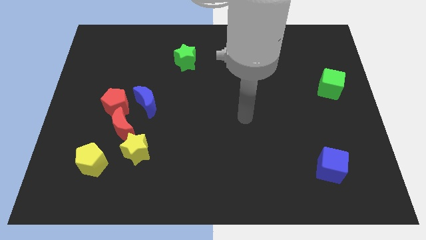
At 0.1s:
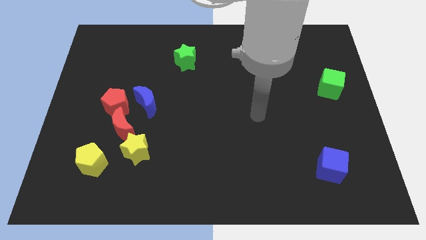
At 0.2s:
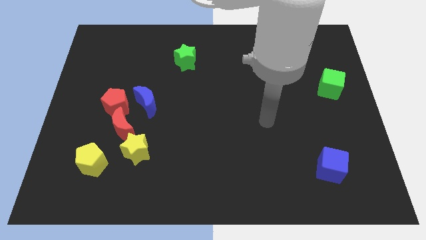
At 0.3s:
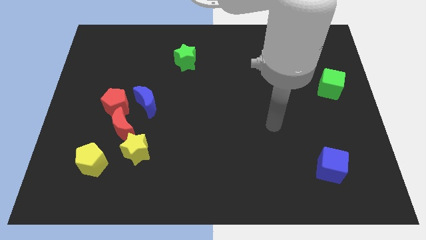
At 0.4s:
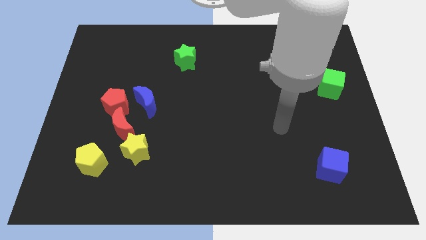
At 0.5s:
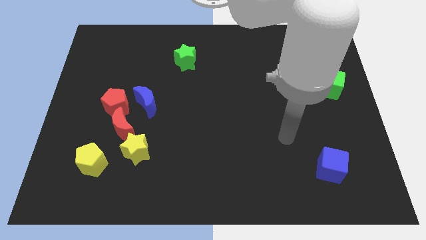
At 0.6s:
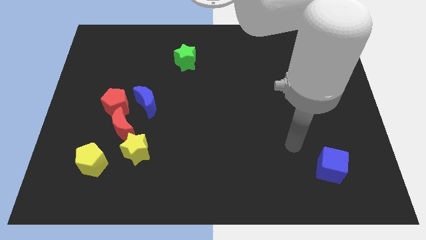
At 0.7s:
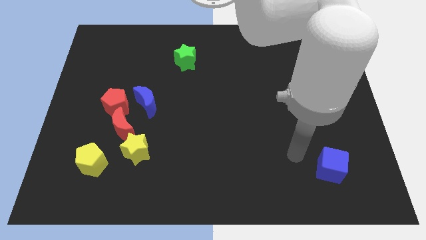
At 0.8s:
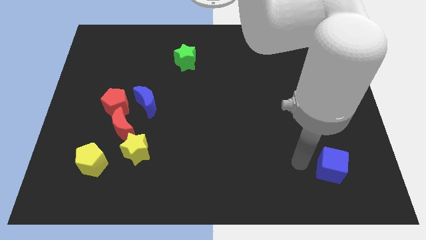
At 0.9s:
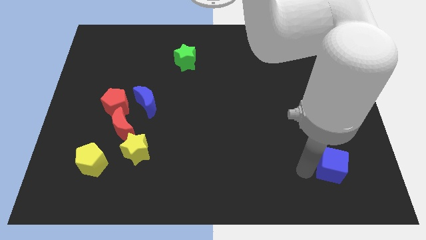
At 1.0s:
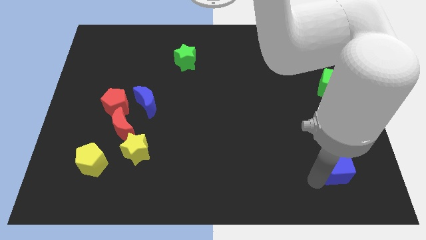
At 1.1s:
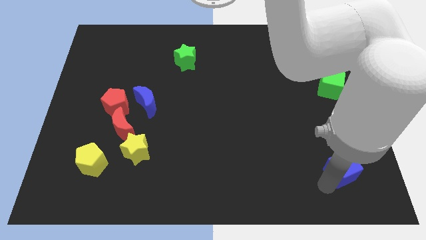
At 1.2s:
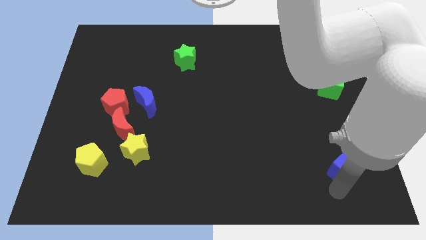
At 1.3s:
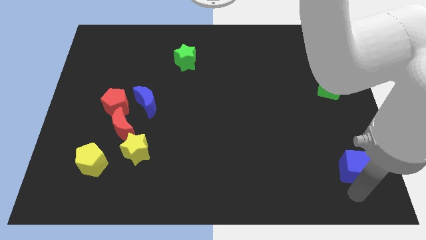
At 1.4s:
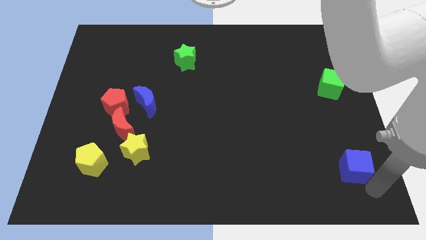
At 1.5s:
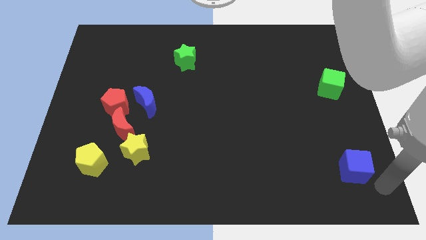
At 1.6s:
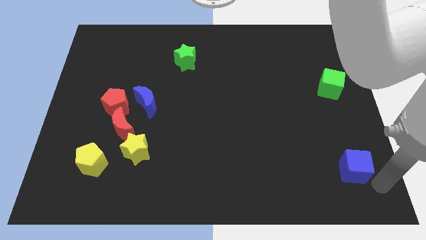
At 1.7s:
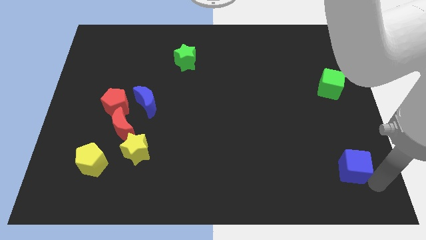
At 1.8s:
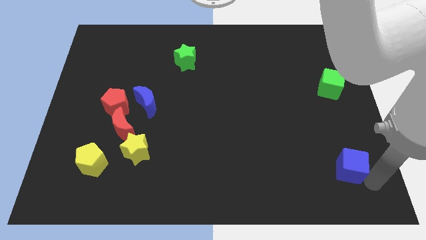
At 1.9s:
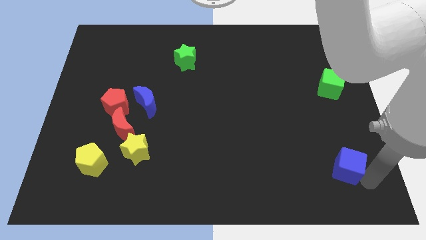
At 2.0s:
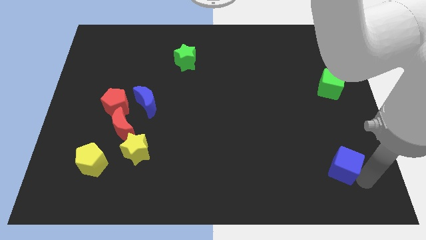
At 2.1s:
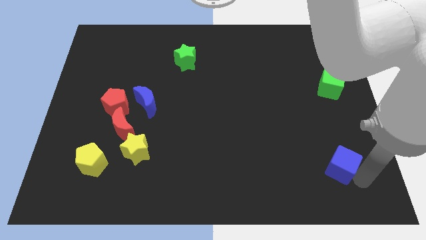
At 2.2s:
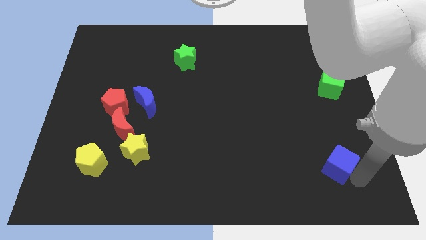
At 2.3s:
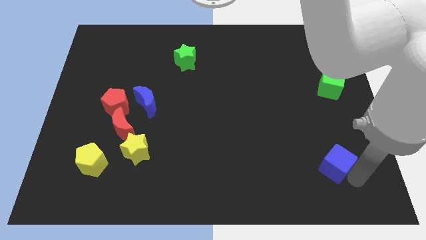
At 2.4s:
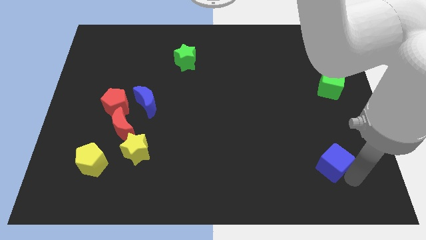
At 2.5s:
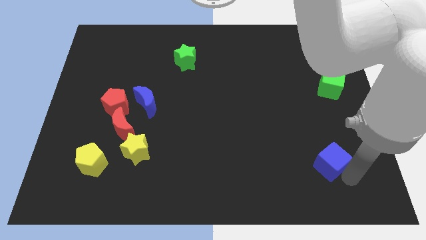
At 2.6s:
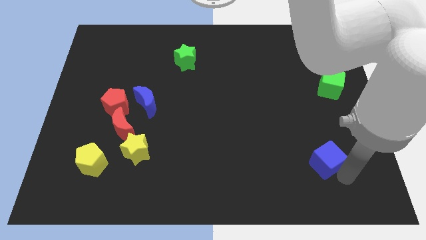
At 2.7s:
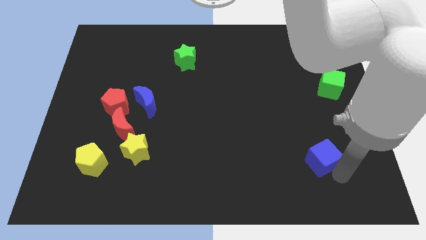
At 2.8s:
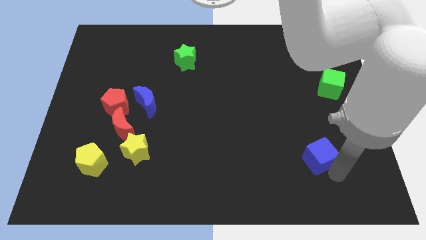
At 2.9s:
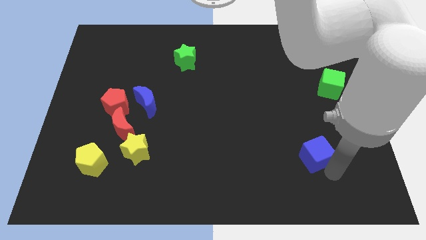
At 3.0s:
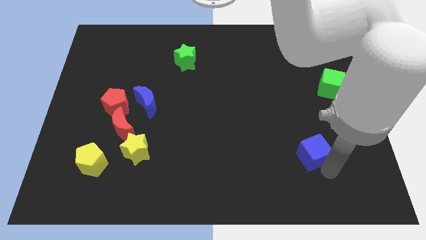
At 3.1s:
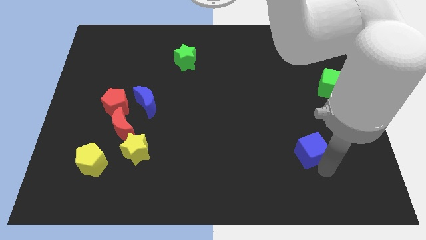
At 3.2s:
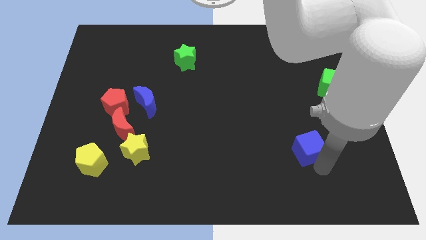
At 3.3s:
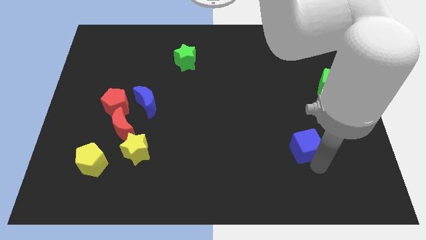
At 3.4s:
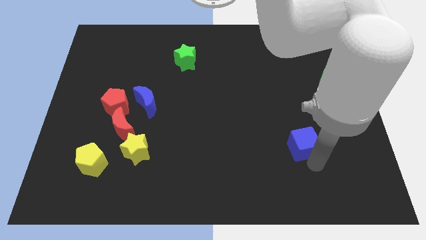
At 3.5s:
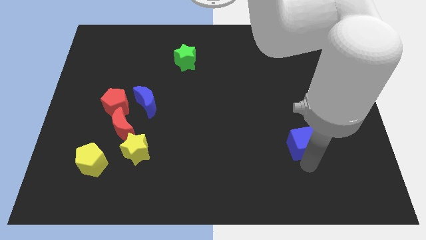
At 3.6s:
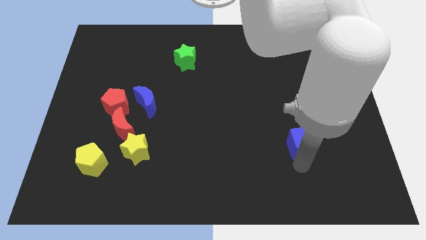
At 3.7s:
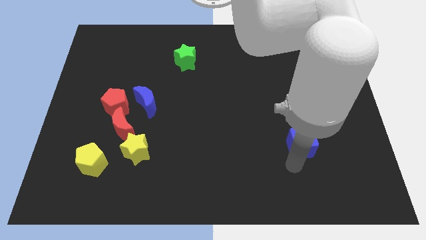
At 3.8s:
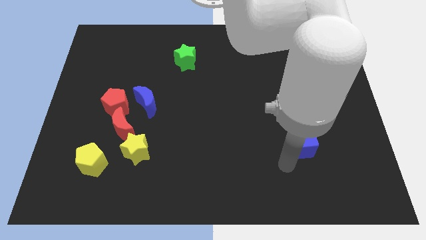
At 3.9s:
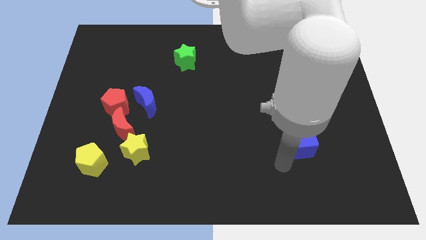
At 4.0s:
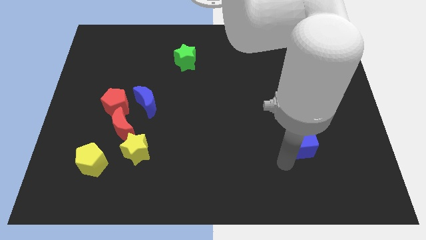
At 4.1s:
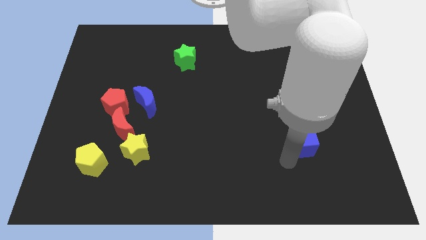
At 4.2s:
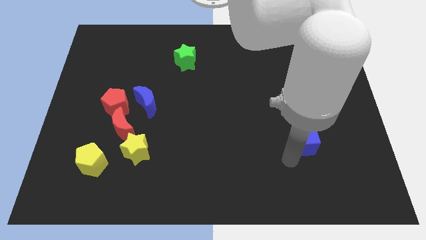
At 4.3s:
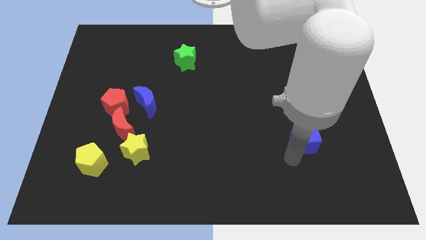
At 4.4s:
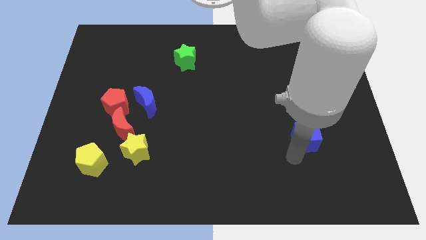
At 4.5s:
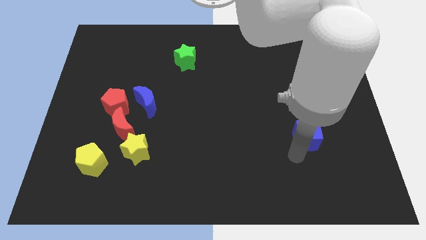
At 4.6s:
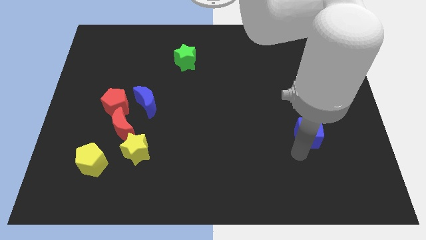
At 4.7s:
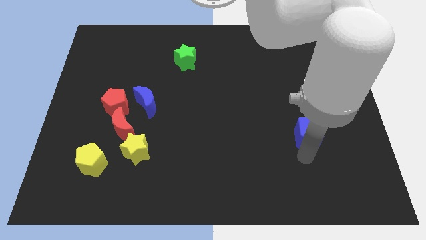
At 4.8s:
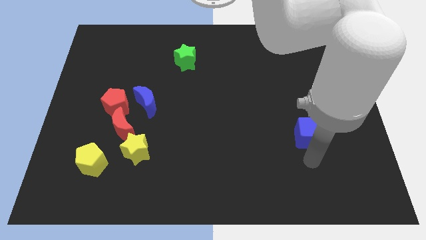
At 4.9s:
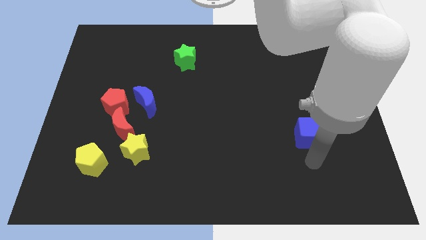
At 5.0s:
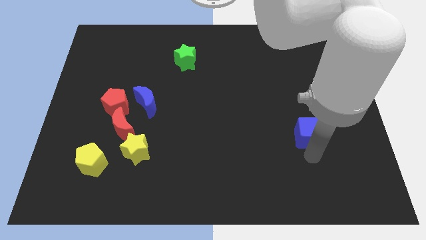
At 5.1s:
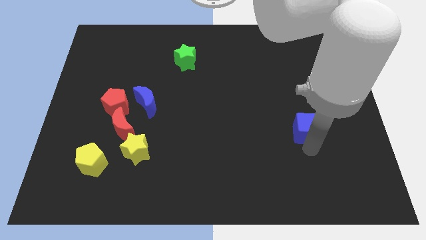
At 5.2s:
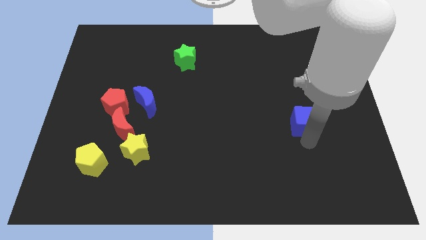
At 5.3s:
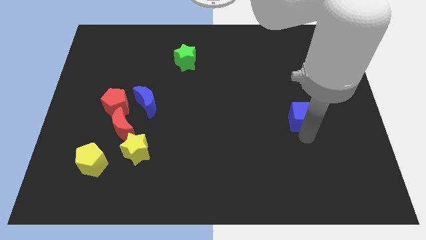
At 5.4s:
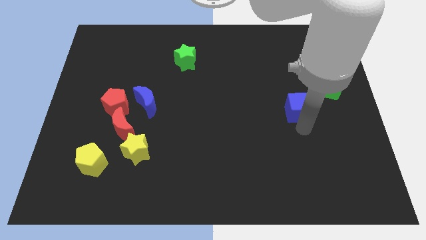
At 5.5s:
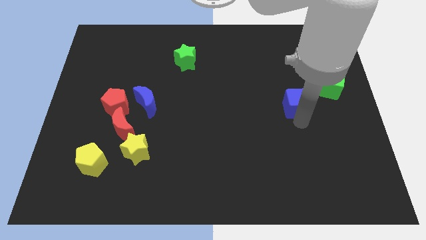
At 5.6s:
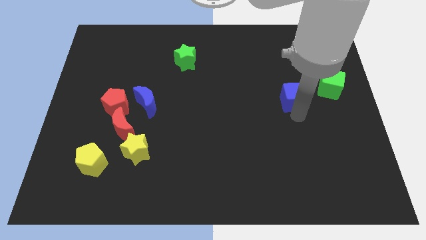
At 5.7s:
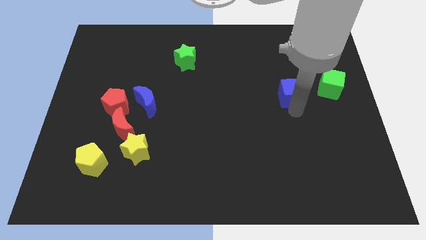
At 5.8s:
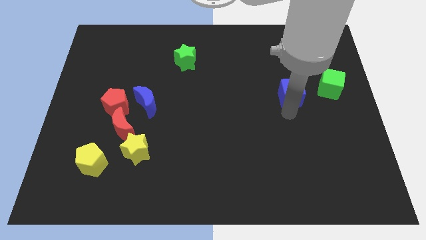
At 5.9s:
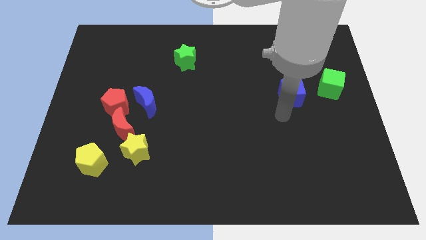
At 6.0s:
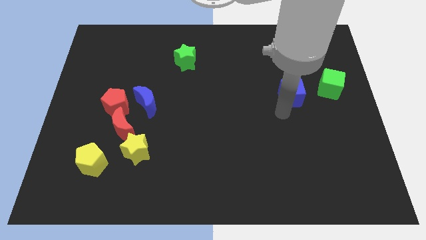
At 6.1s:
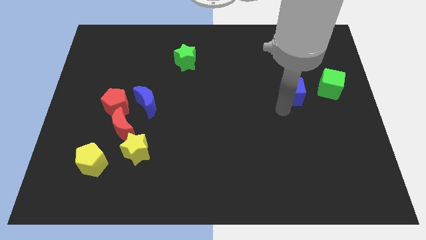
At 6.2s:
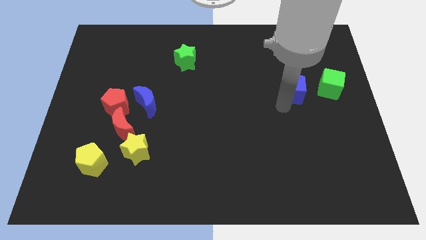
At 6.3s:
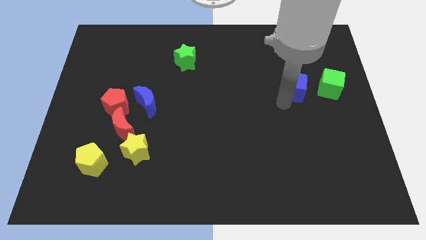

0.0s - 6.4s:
slide the blue cube up

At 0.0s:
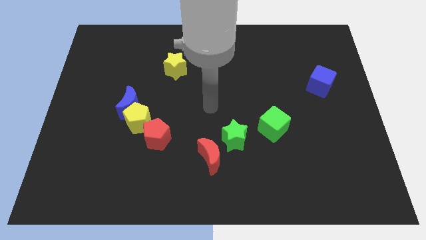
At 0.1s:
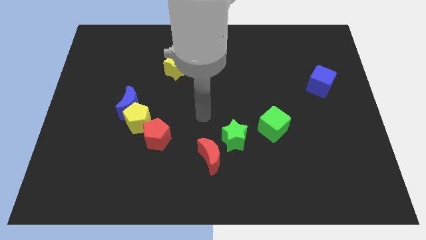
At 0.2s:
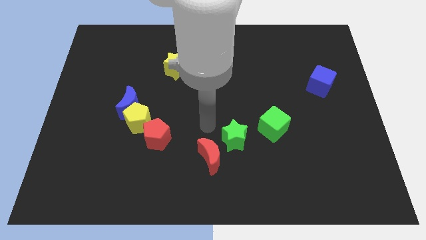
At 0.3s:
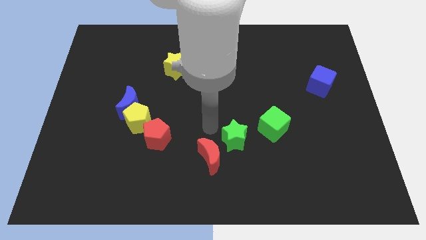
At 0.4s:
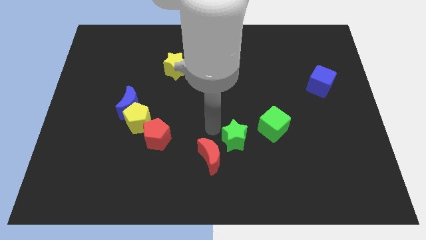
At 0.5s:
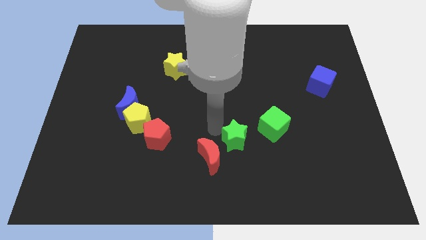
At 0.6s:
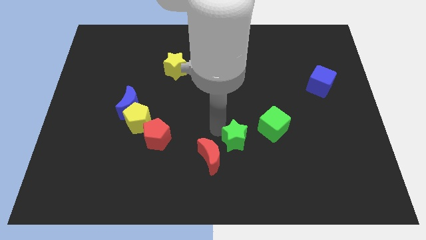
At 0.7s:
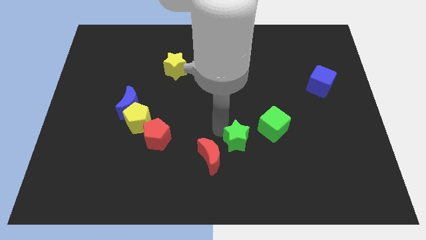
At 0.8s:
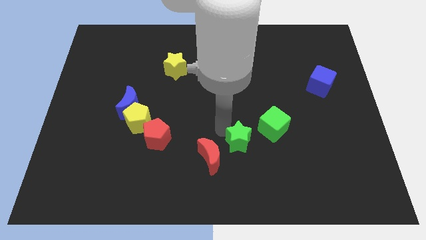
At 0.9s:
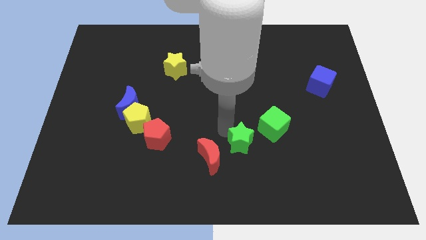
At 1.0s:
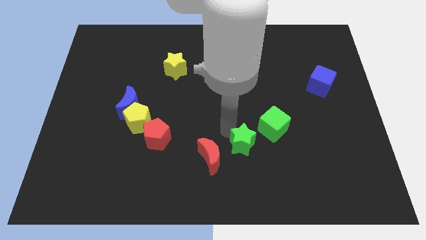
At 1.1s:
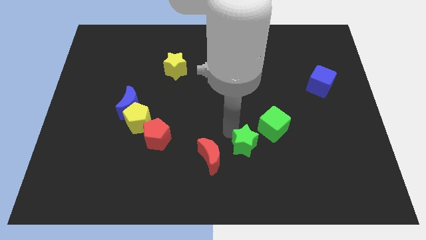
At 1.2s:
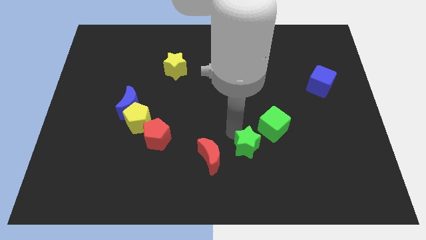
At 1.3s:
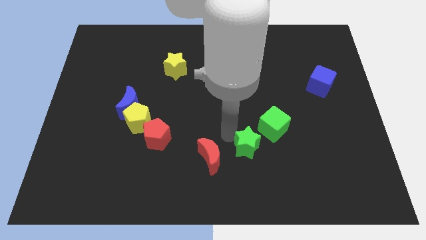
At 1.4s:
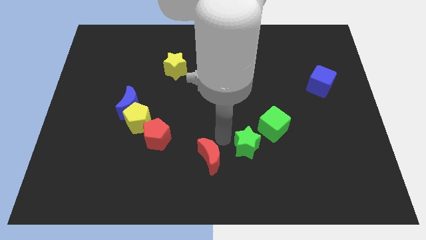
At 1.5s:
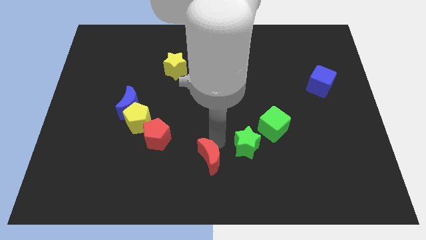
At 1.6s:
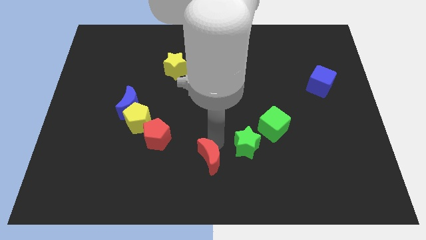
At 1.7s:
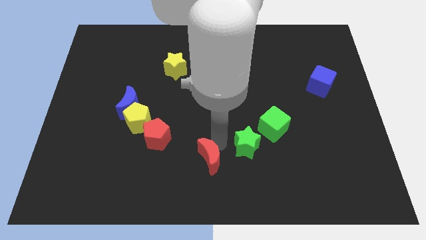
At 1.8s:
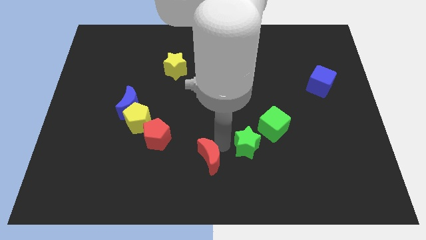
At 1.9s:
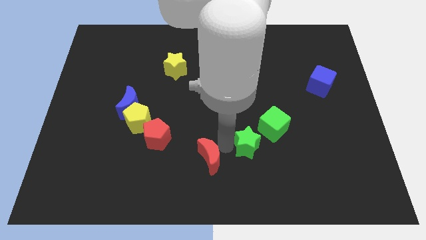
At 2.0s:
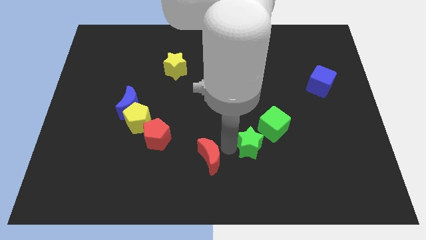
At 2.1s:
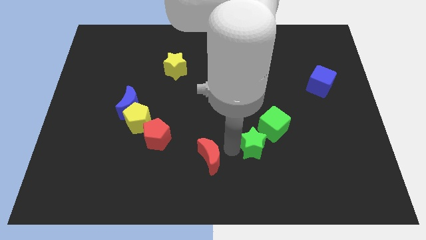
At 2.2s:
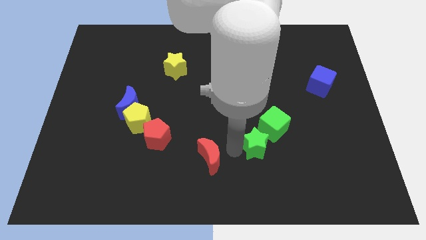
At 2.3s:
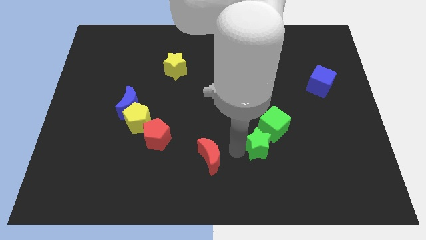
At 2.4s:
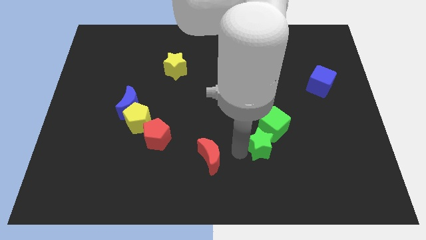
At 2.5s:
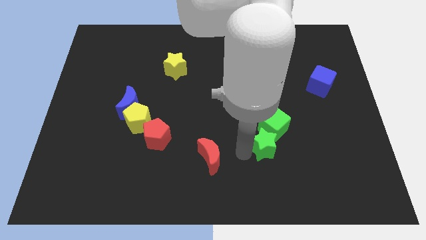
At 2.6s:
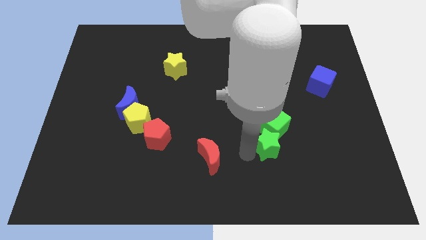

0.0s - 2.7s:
slightly move the green star to the right
